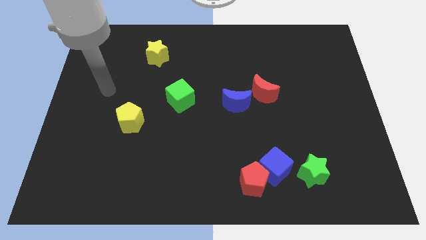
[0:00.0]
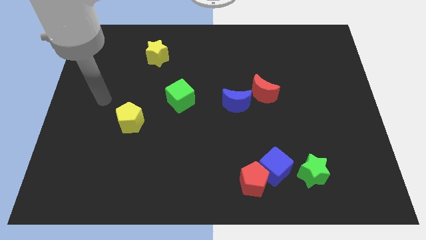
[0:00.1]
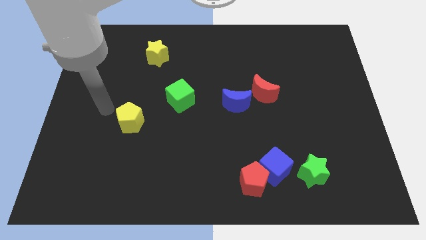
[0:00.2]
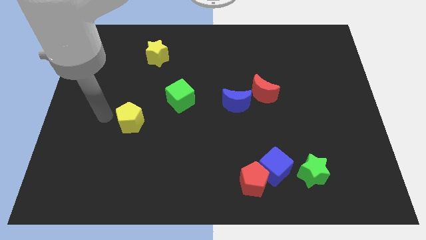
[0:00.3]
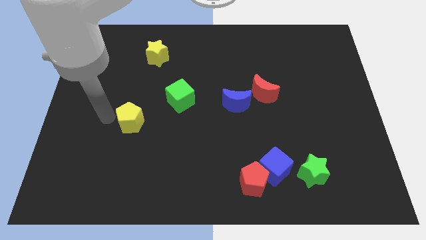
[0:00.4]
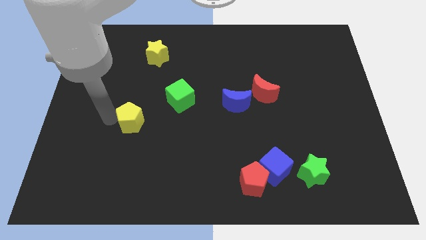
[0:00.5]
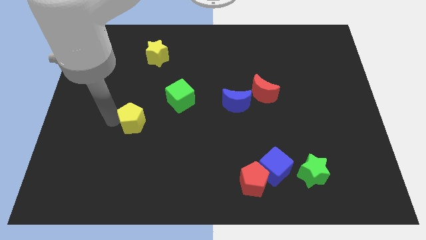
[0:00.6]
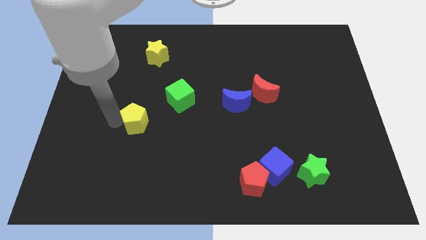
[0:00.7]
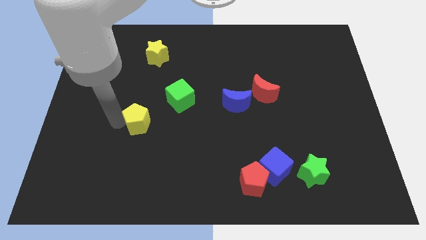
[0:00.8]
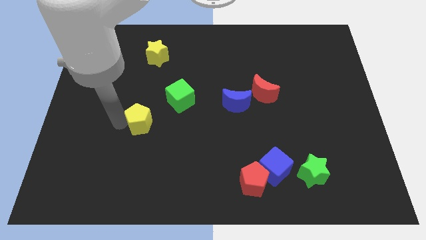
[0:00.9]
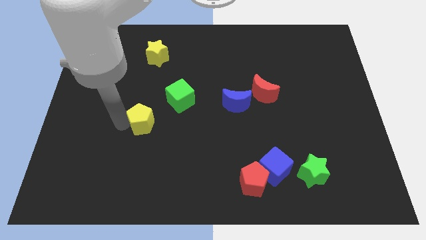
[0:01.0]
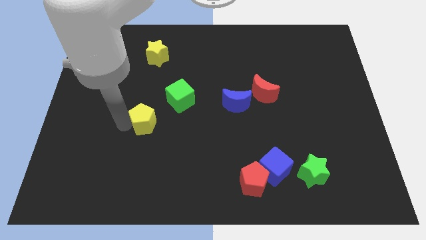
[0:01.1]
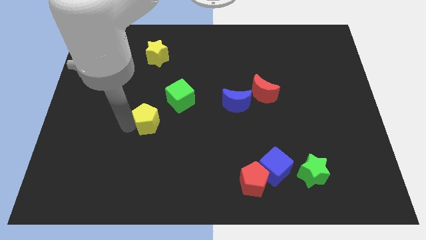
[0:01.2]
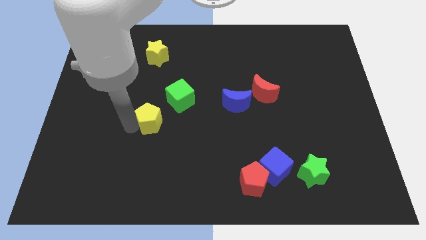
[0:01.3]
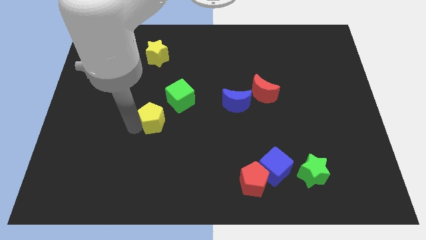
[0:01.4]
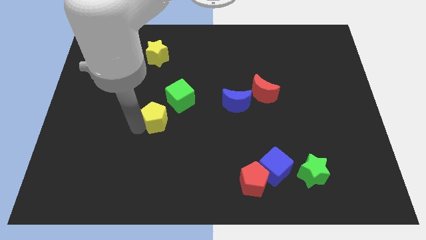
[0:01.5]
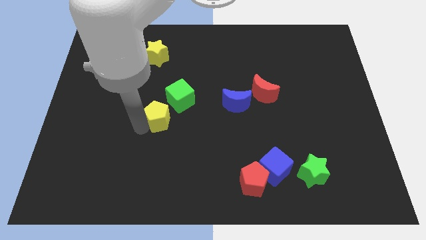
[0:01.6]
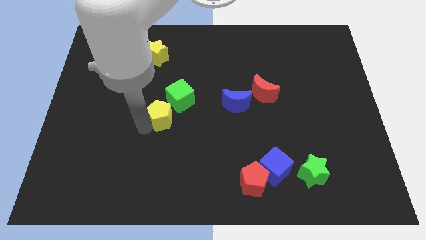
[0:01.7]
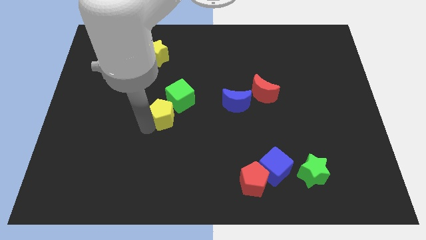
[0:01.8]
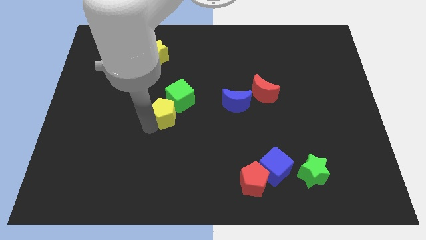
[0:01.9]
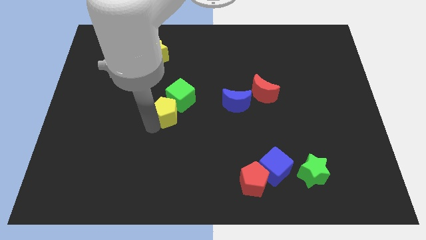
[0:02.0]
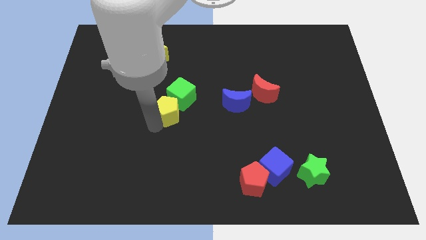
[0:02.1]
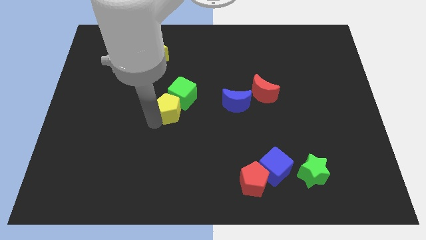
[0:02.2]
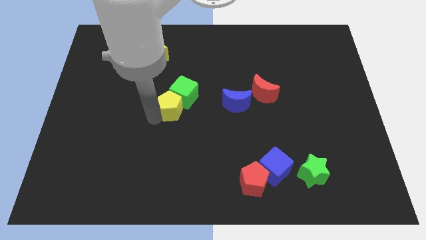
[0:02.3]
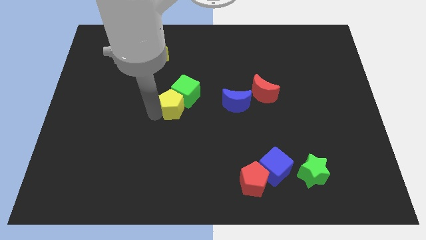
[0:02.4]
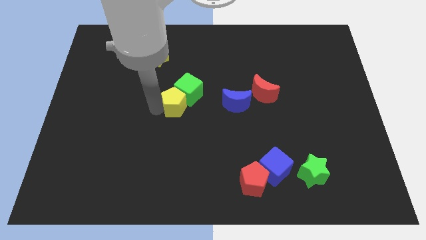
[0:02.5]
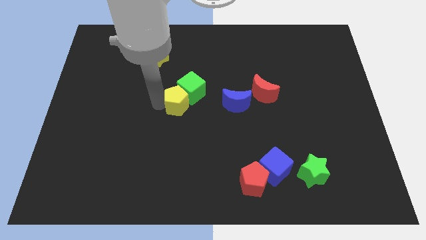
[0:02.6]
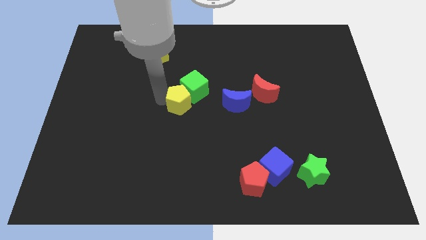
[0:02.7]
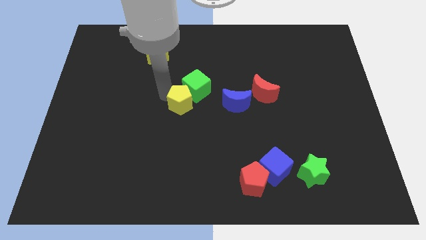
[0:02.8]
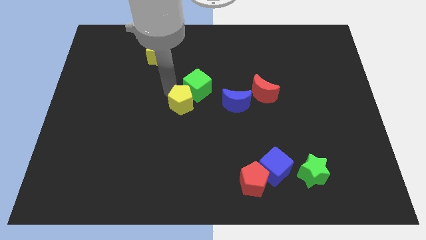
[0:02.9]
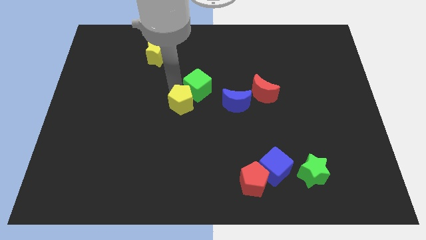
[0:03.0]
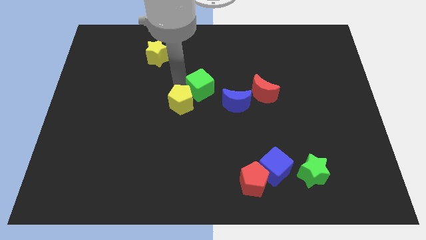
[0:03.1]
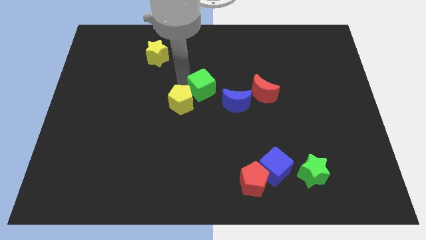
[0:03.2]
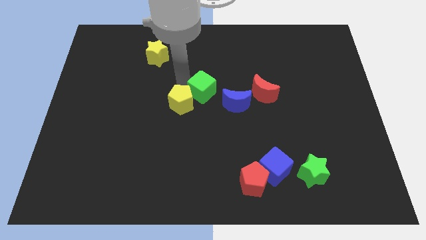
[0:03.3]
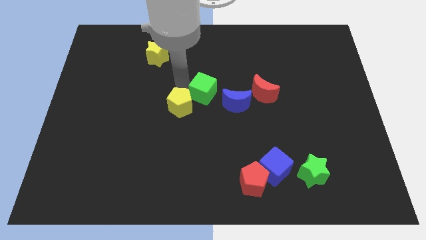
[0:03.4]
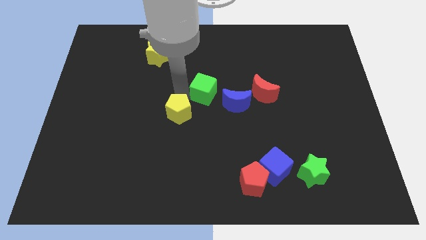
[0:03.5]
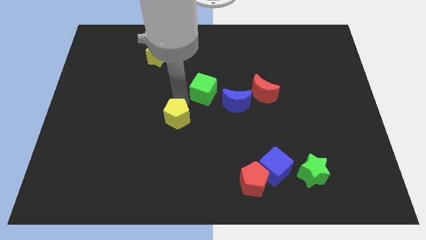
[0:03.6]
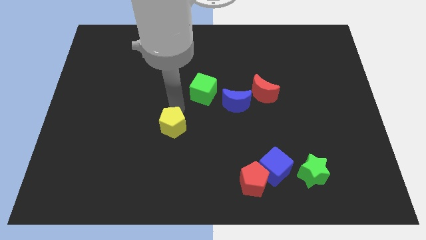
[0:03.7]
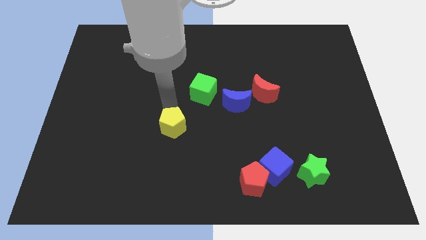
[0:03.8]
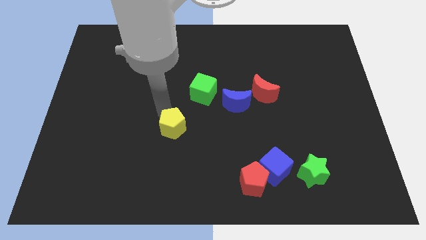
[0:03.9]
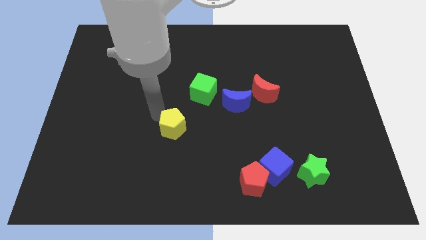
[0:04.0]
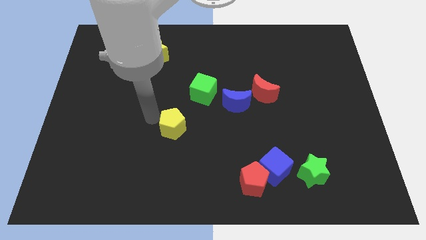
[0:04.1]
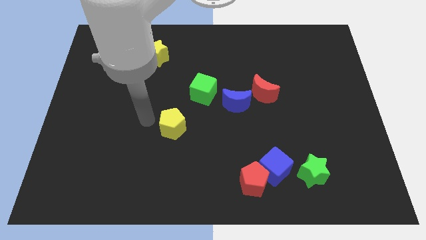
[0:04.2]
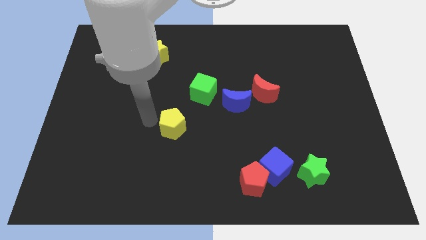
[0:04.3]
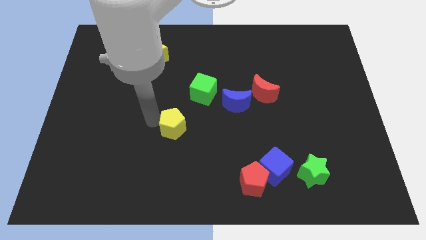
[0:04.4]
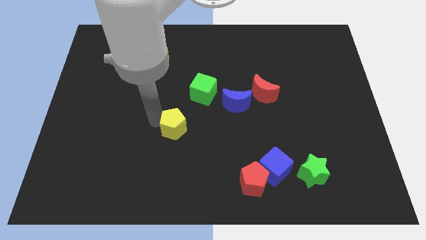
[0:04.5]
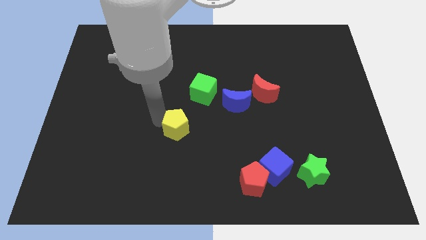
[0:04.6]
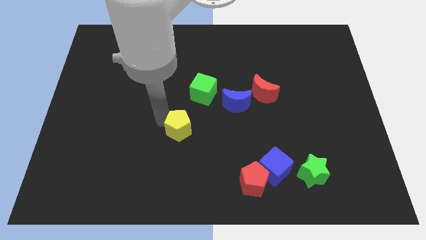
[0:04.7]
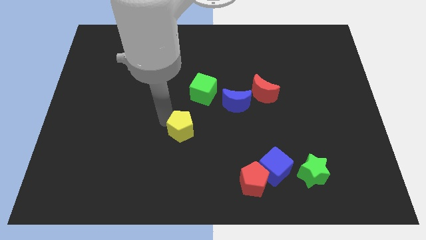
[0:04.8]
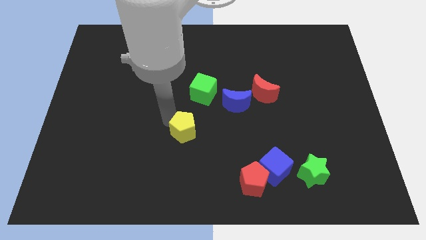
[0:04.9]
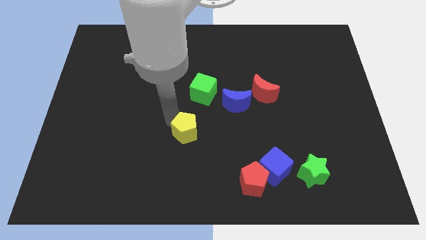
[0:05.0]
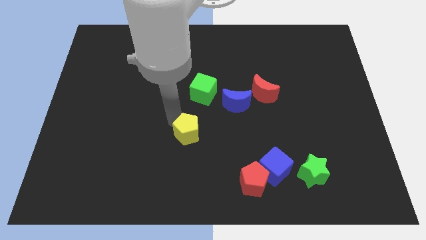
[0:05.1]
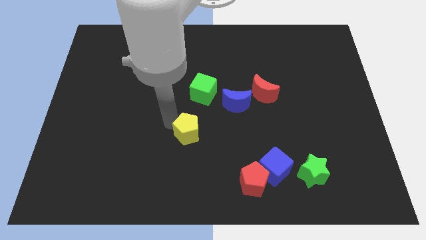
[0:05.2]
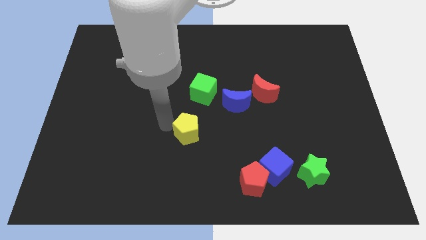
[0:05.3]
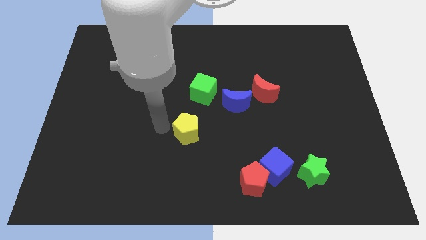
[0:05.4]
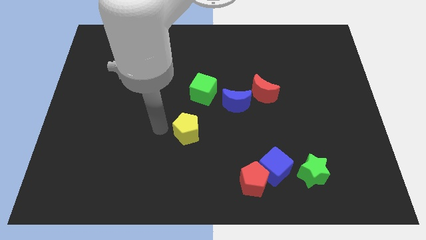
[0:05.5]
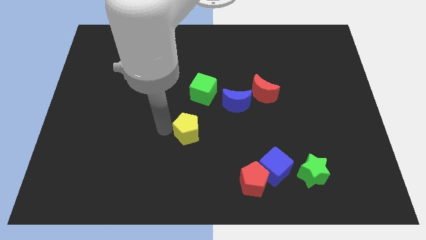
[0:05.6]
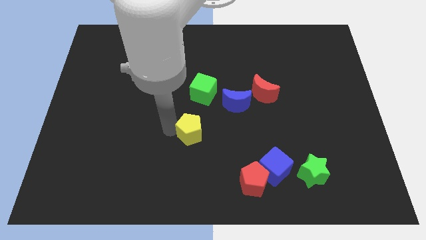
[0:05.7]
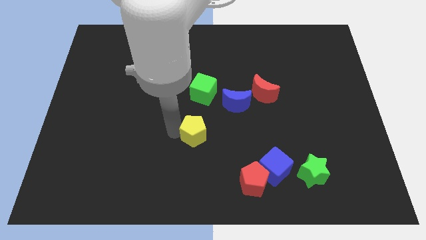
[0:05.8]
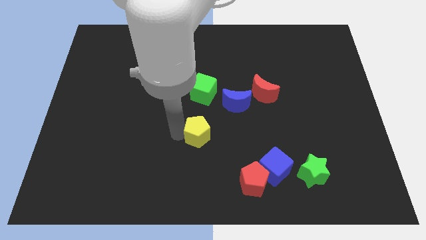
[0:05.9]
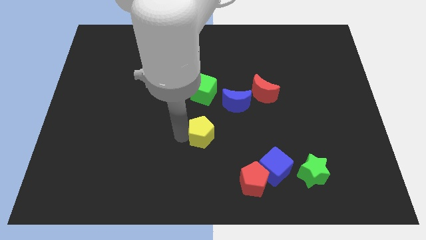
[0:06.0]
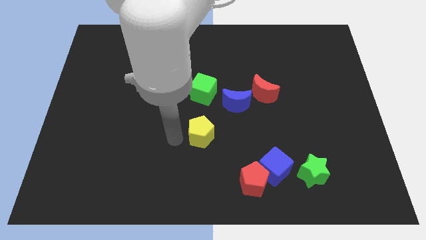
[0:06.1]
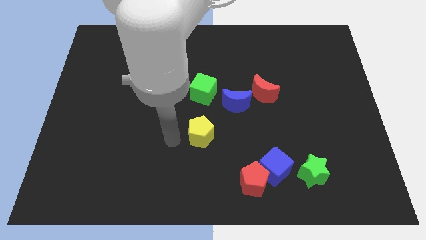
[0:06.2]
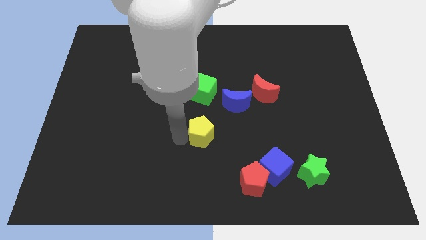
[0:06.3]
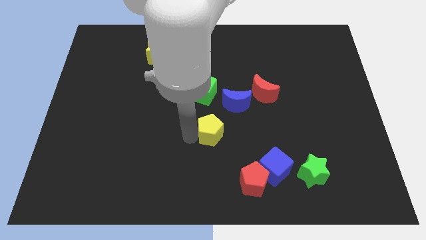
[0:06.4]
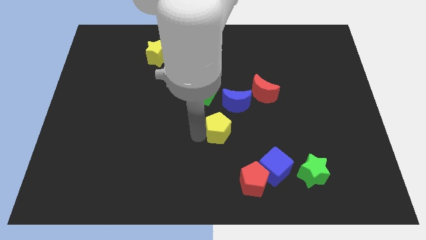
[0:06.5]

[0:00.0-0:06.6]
push the yellow pentagon right

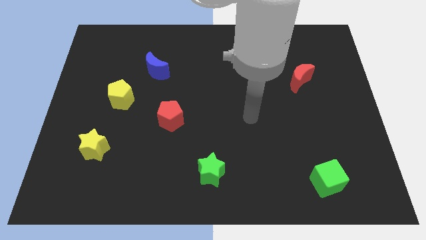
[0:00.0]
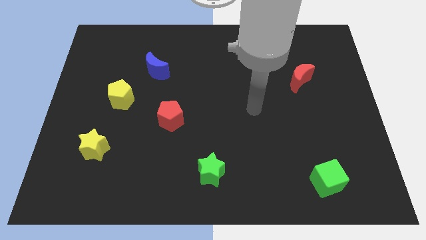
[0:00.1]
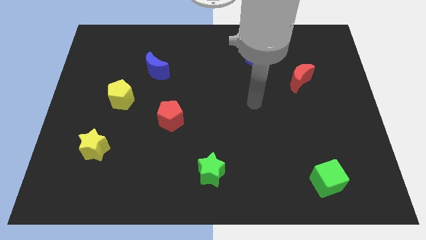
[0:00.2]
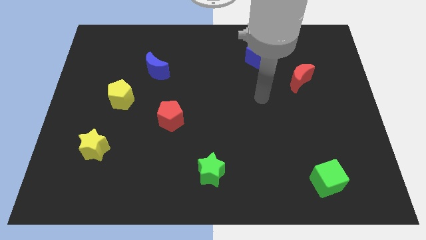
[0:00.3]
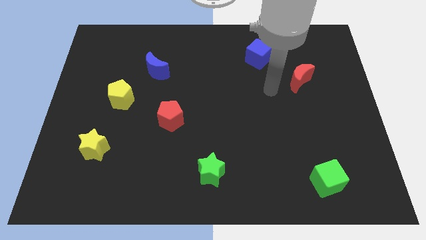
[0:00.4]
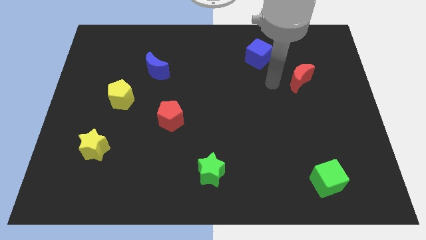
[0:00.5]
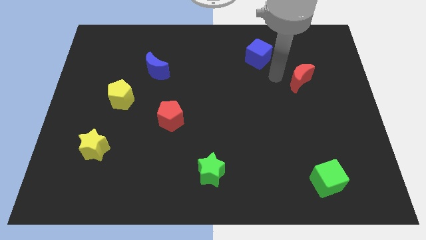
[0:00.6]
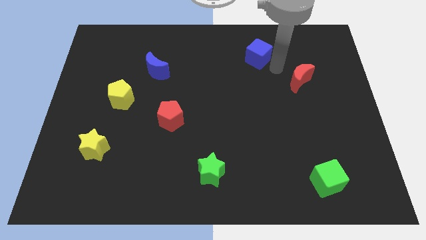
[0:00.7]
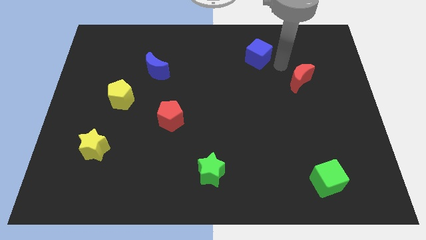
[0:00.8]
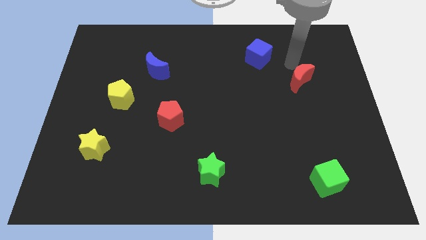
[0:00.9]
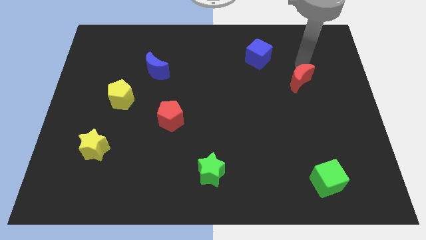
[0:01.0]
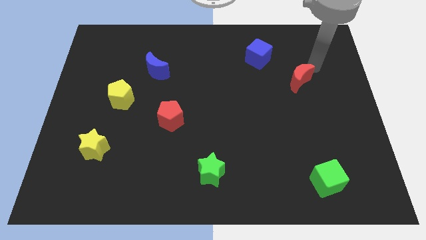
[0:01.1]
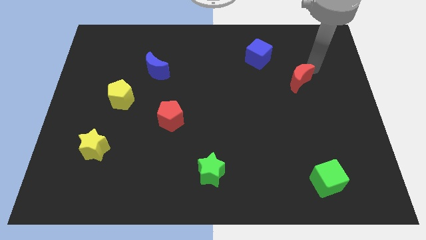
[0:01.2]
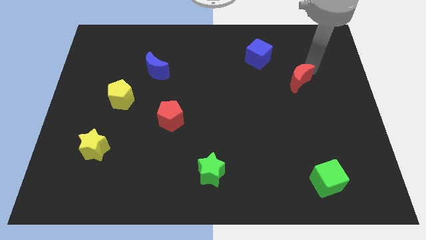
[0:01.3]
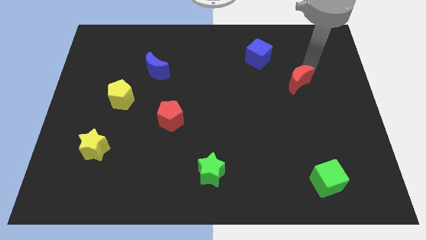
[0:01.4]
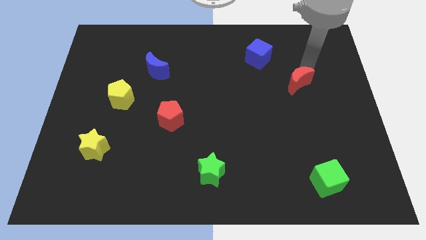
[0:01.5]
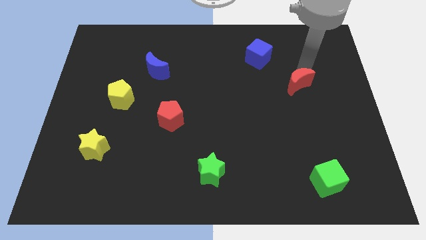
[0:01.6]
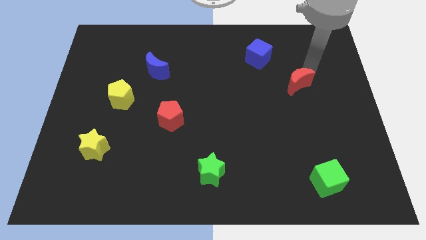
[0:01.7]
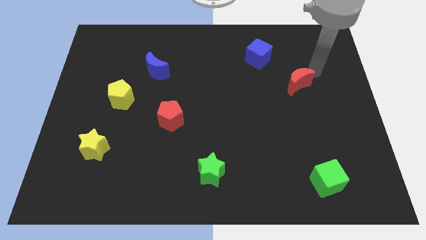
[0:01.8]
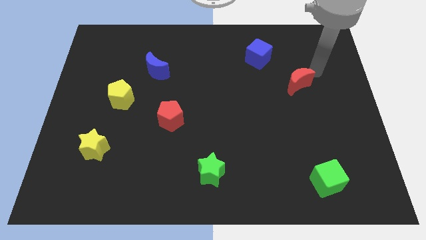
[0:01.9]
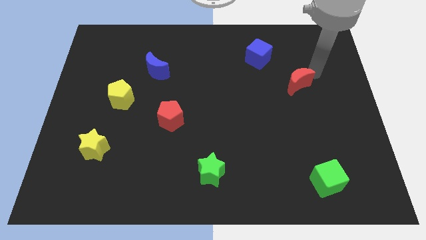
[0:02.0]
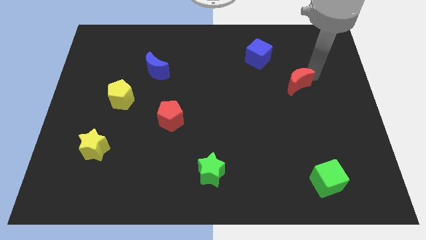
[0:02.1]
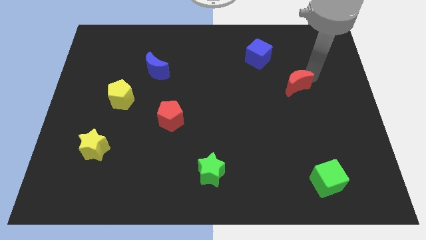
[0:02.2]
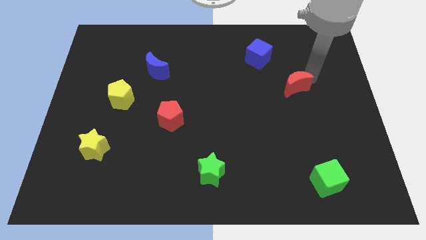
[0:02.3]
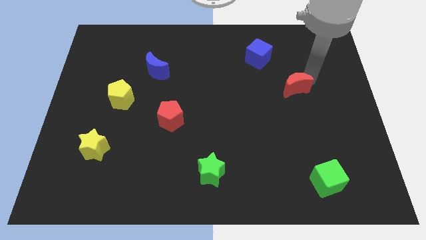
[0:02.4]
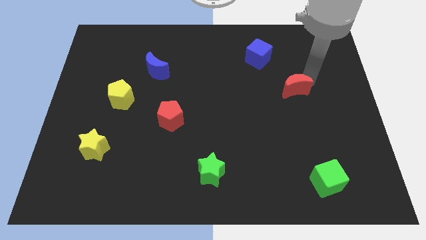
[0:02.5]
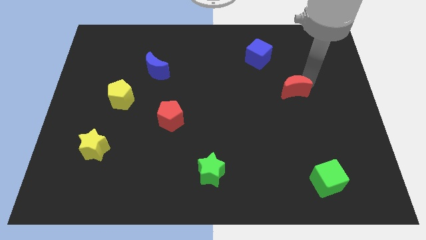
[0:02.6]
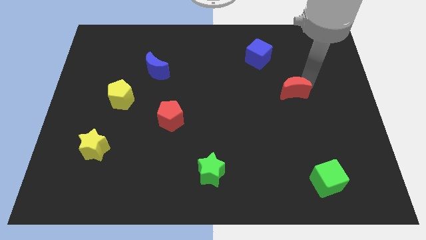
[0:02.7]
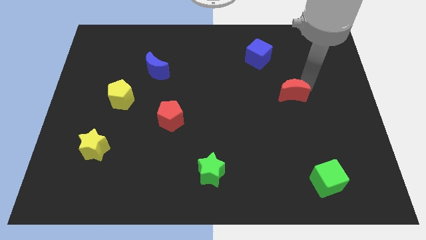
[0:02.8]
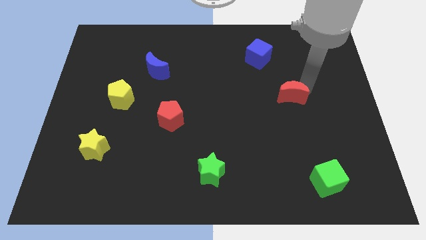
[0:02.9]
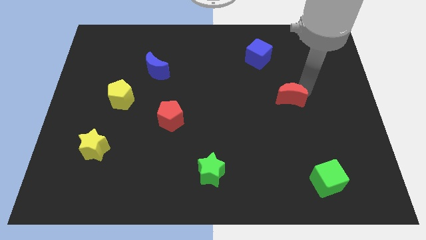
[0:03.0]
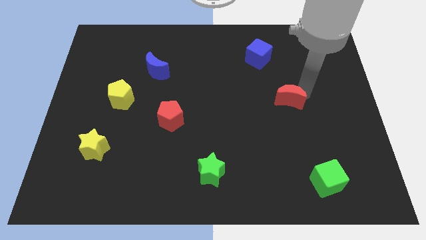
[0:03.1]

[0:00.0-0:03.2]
slide the red moon slightly down and left
